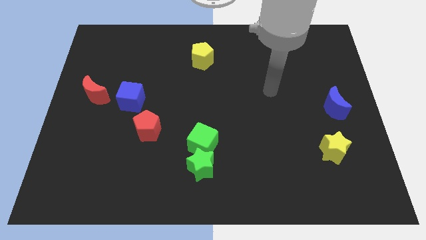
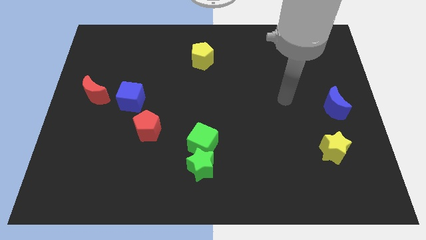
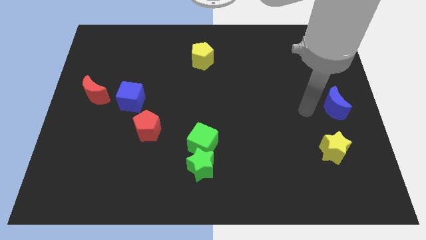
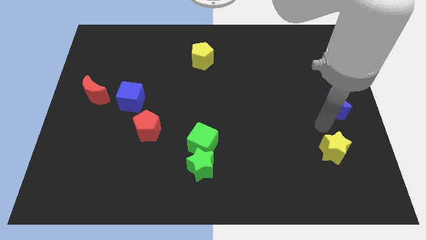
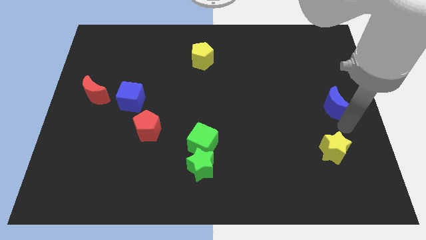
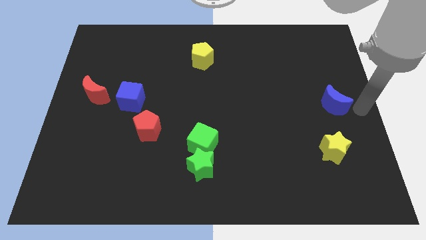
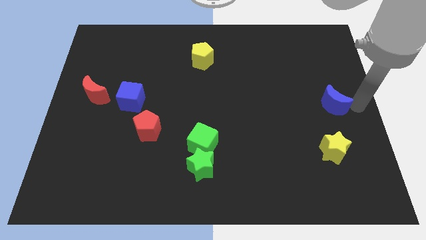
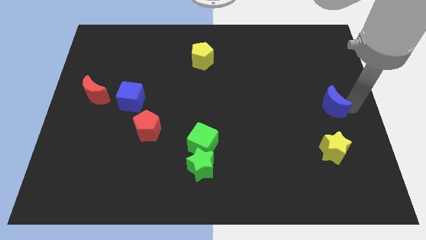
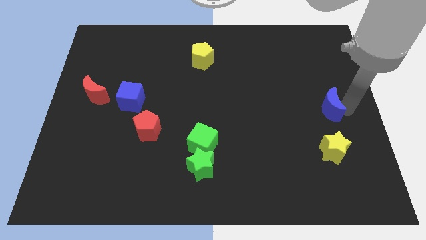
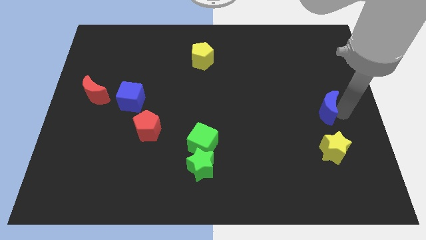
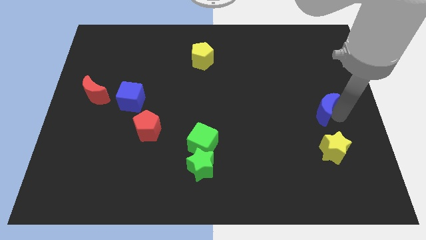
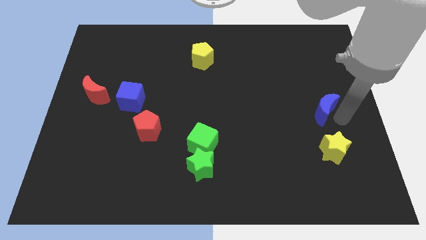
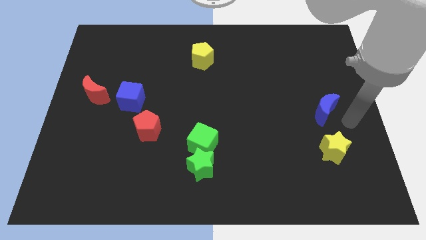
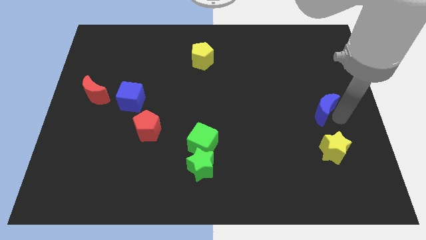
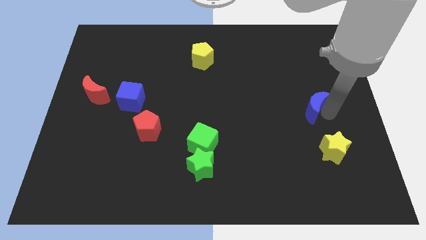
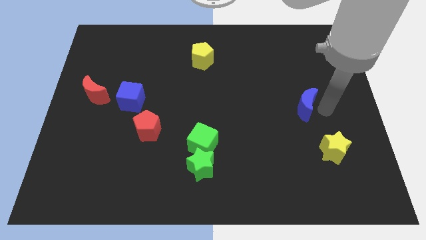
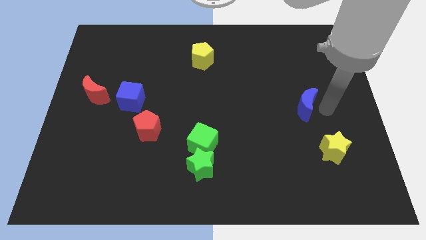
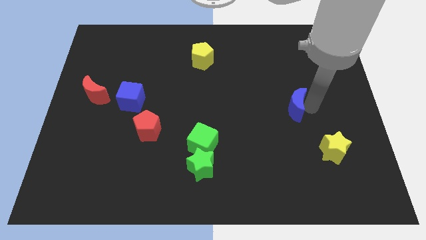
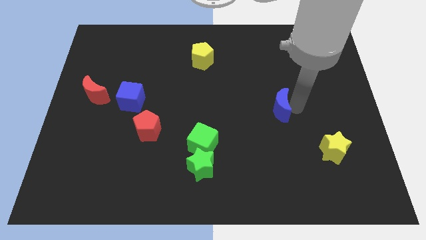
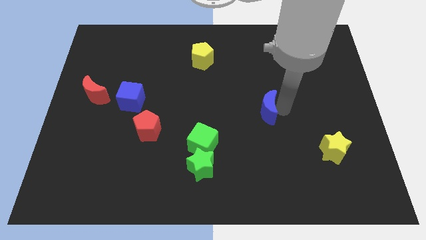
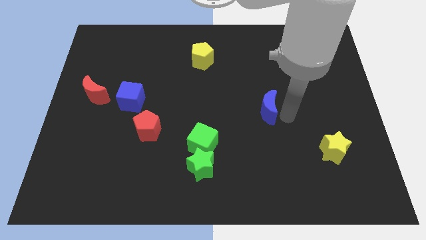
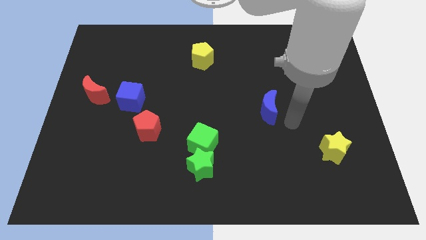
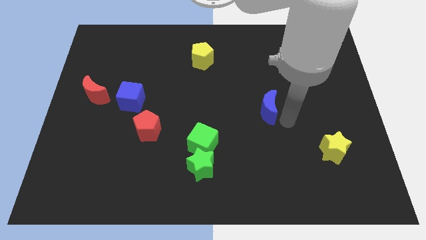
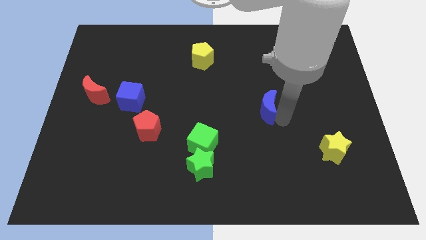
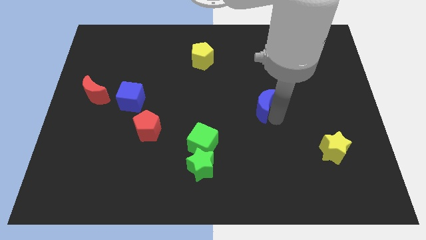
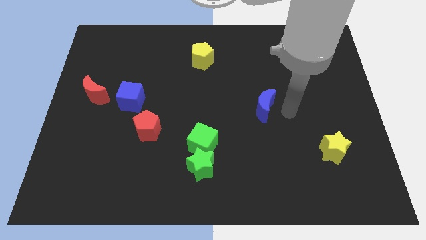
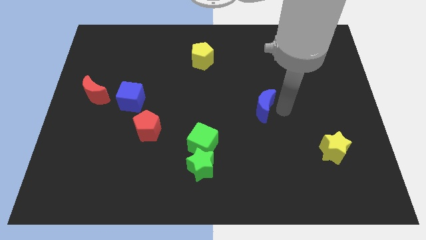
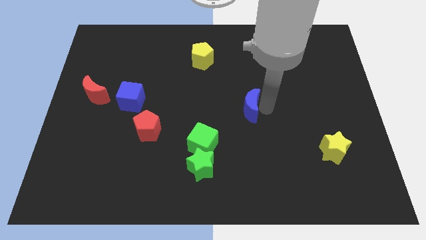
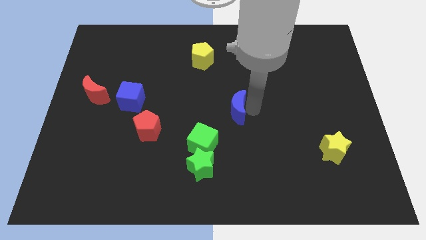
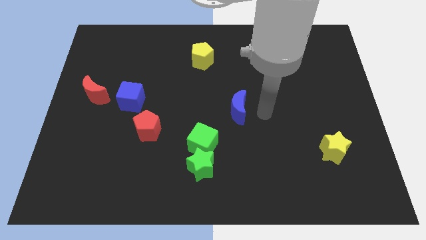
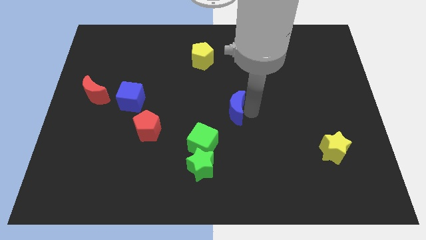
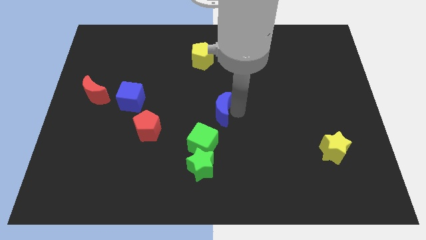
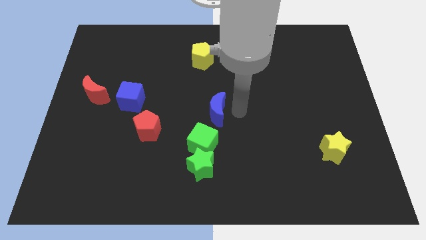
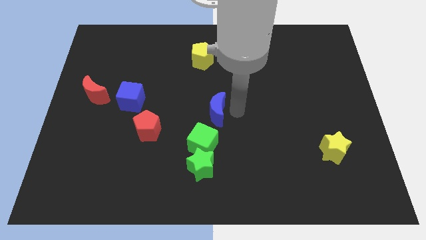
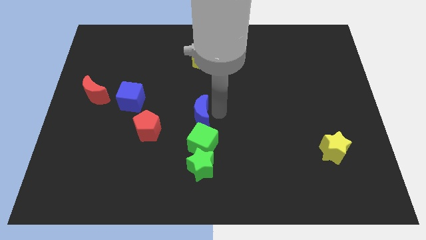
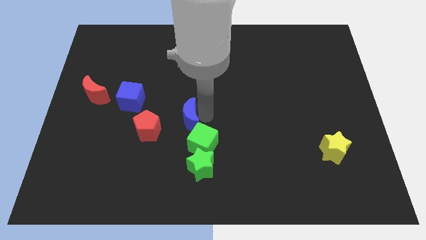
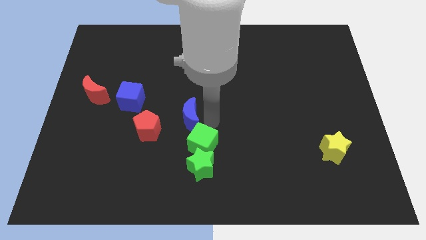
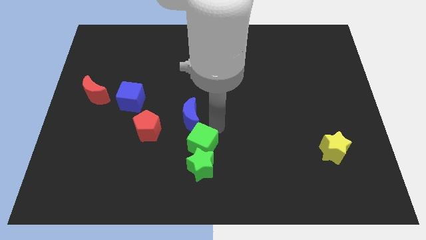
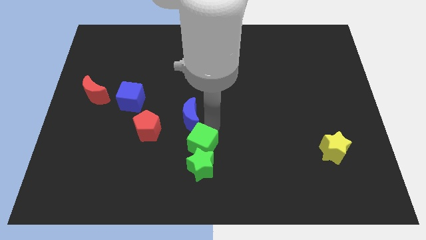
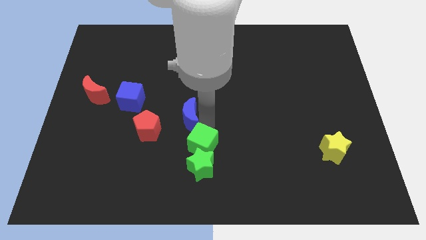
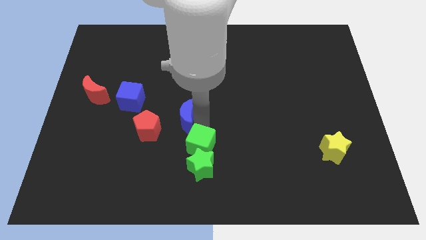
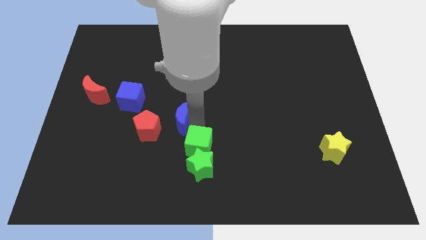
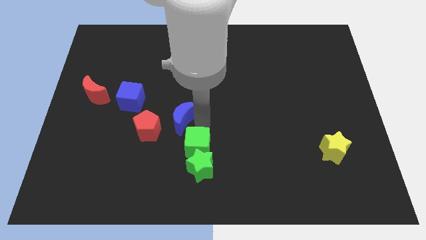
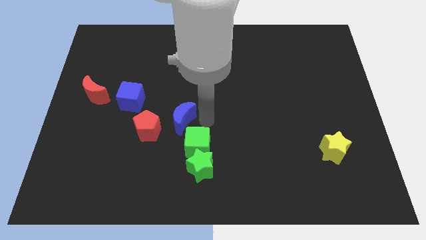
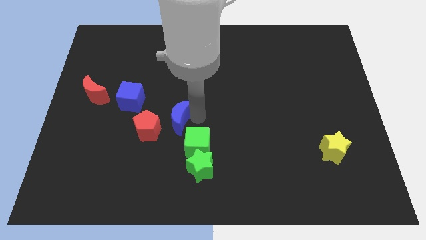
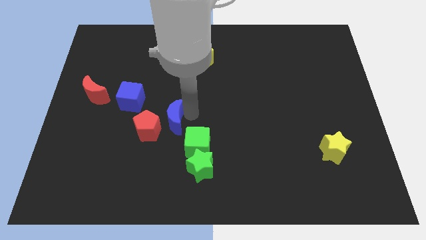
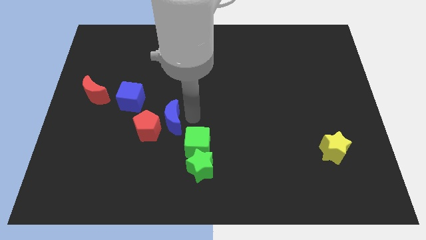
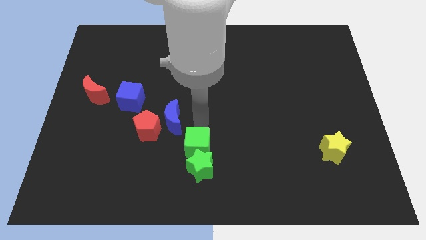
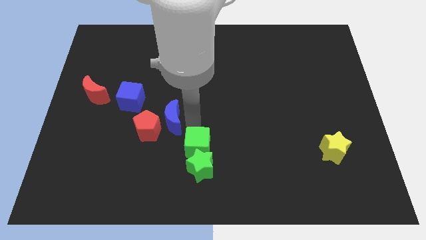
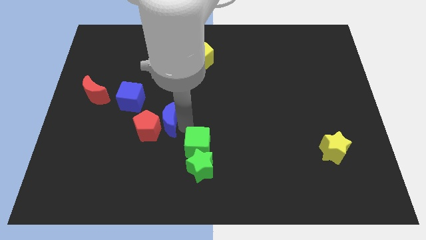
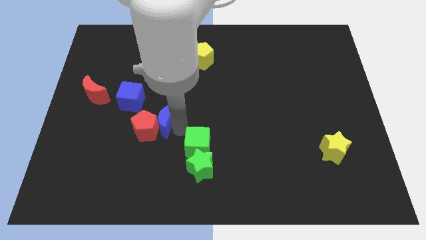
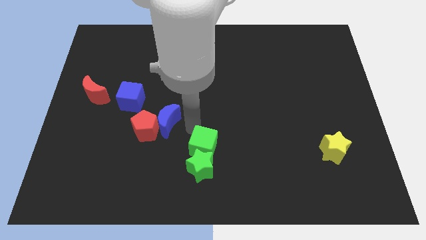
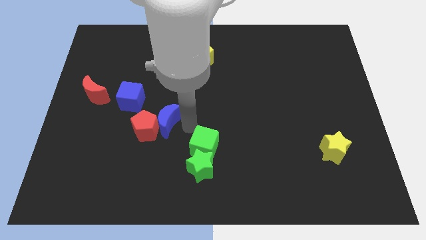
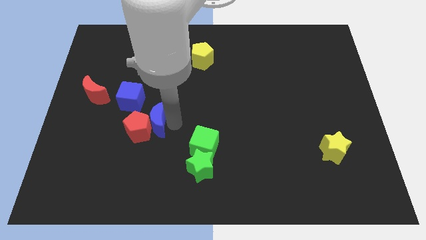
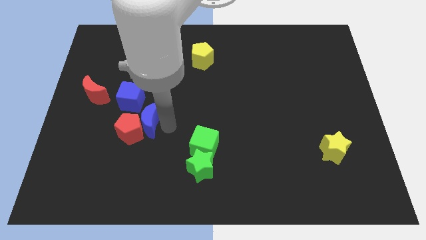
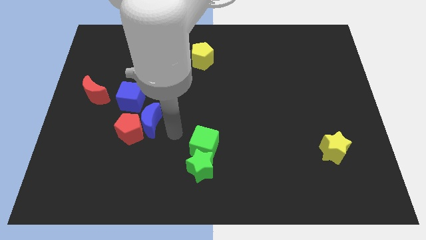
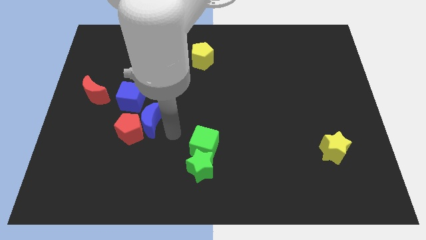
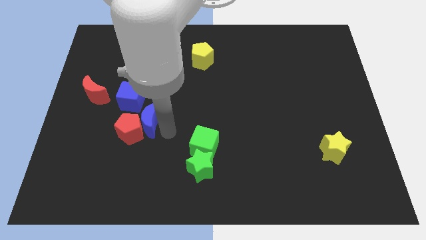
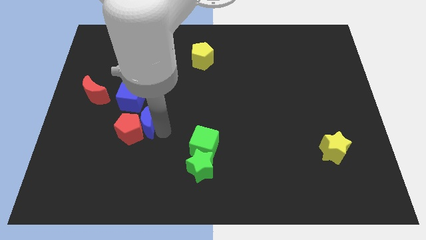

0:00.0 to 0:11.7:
put the blue moon to the bottom side of the blue cube

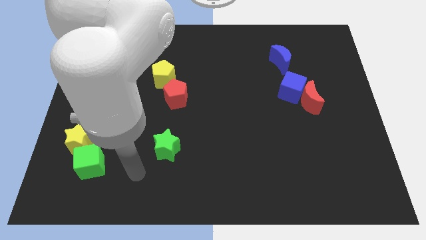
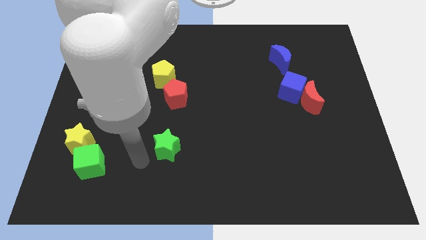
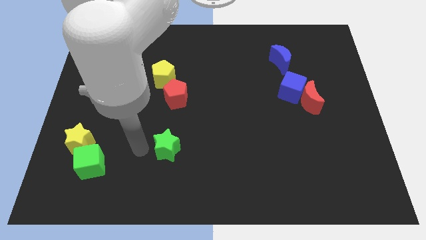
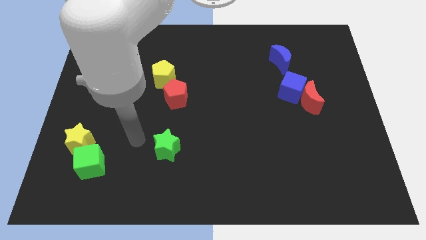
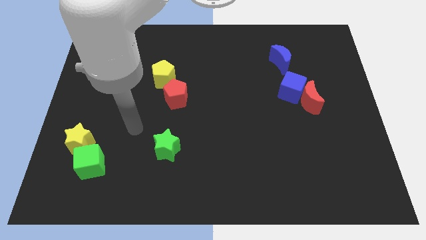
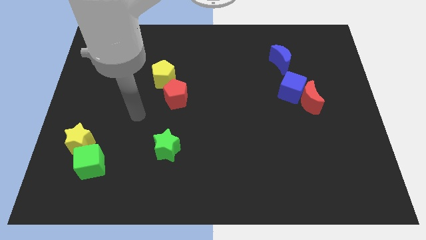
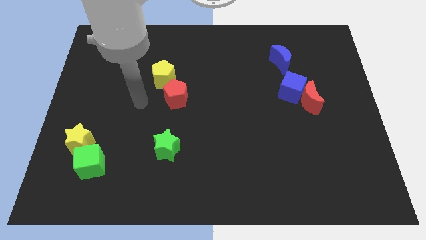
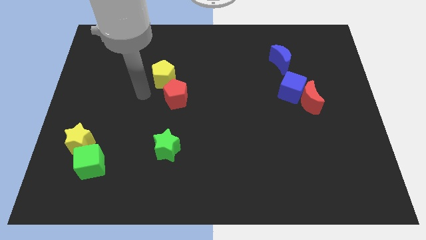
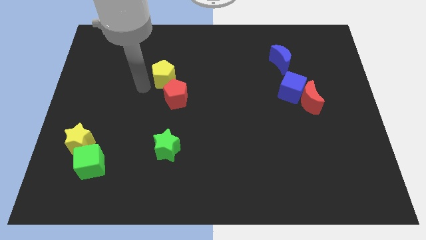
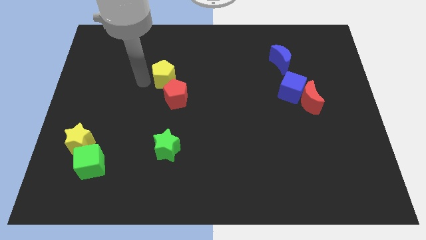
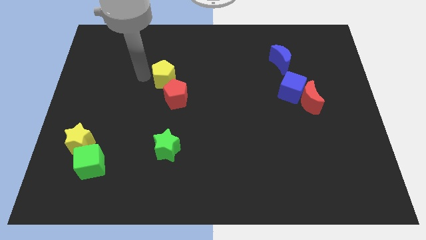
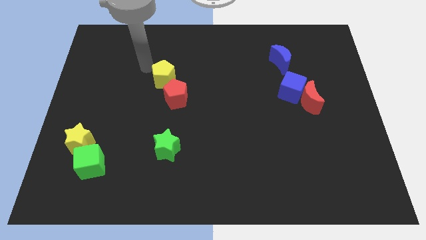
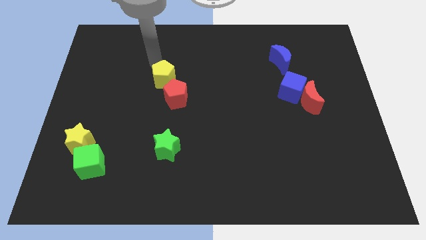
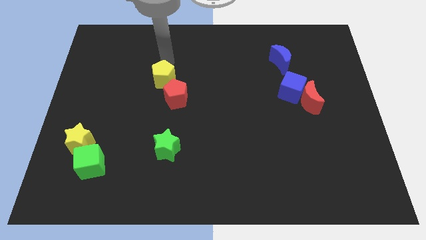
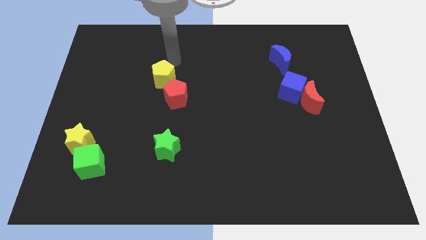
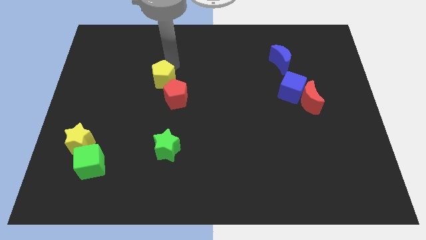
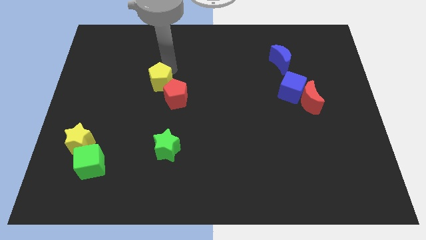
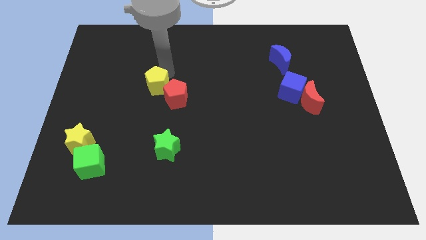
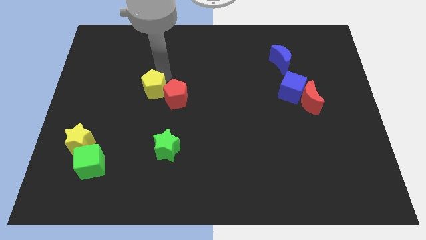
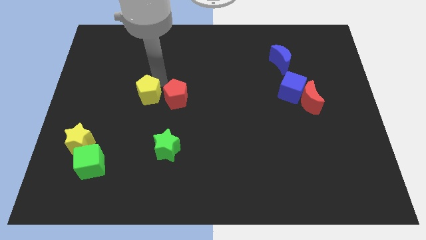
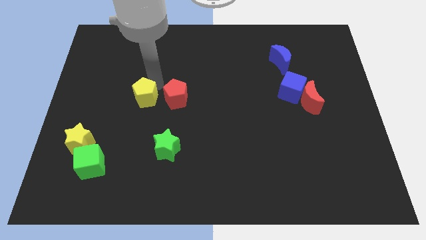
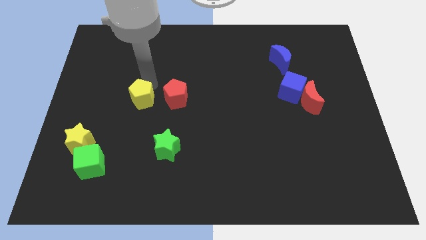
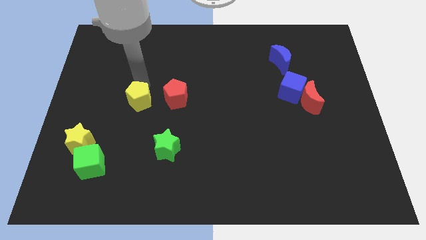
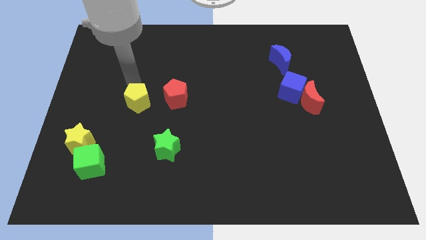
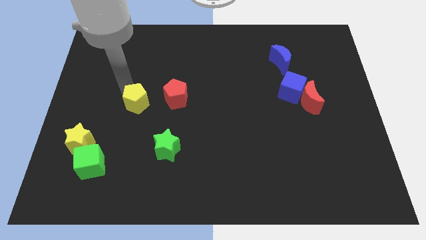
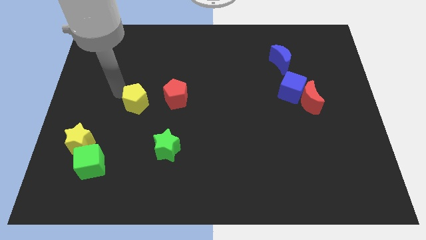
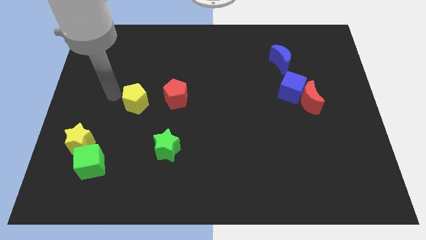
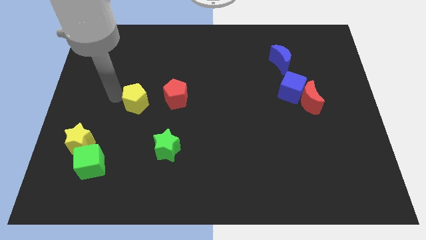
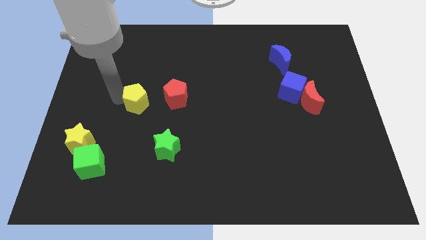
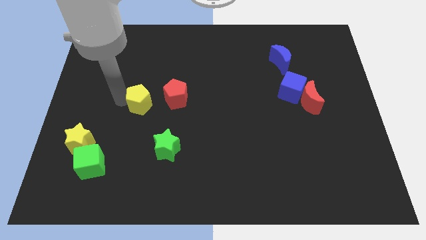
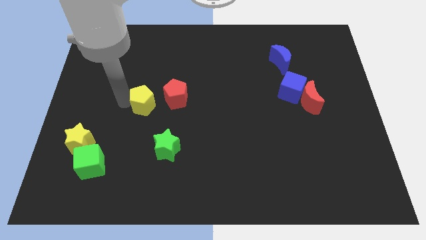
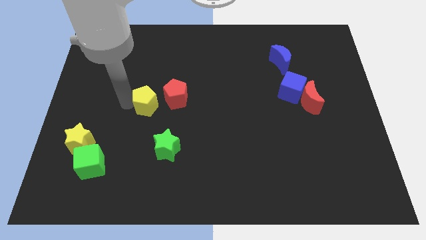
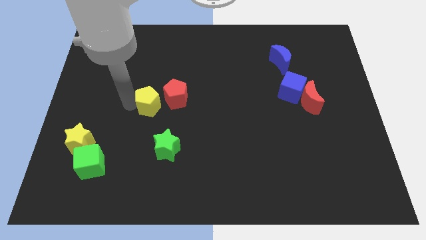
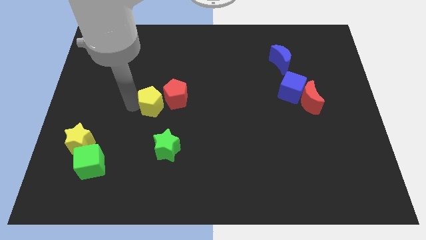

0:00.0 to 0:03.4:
slide the yellow pentagon above the green star
